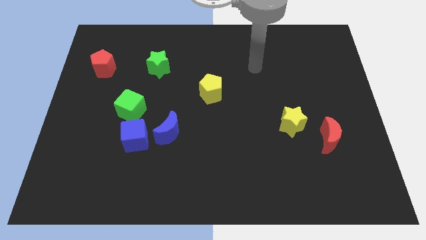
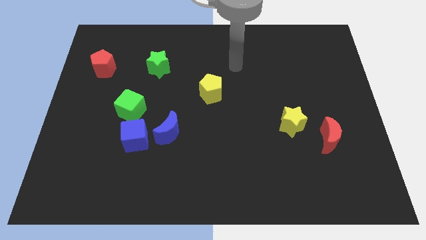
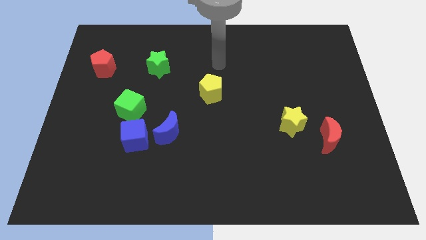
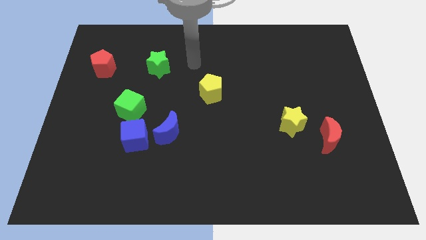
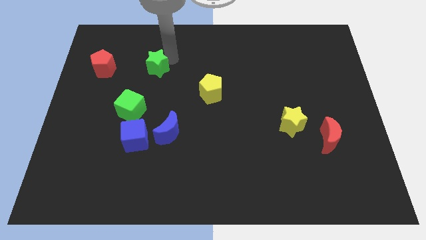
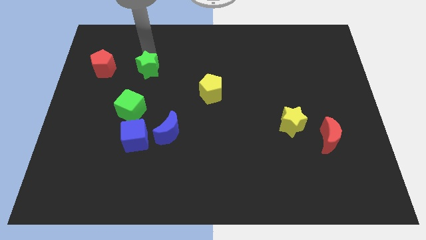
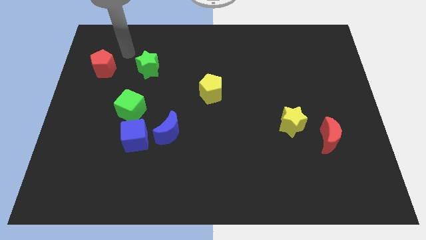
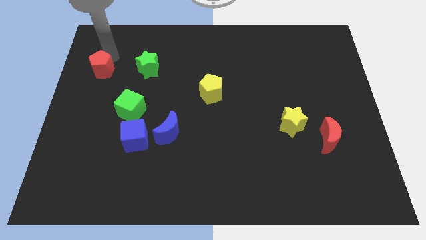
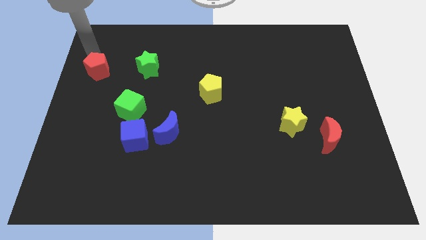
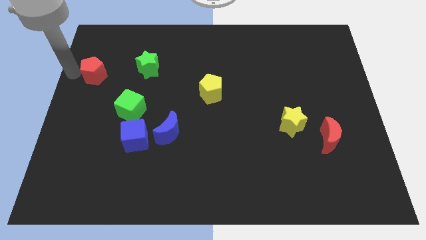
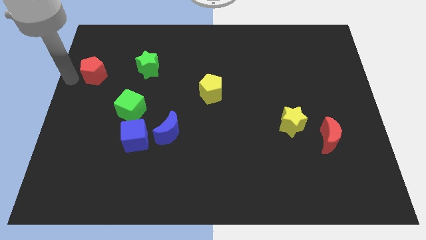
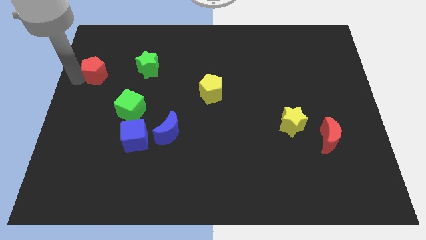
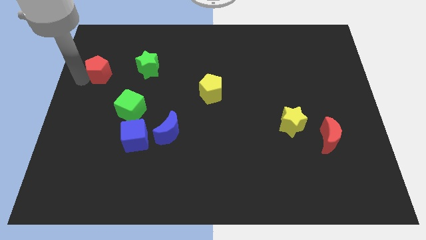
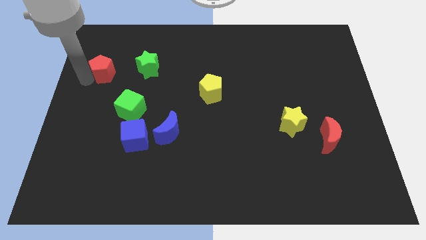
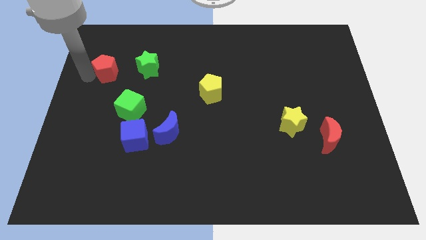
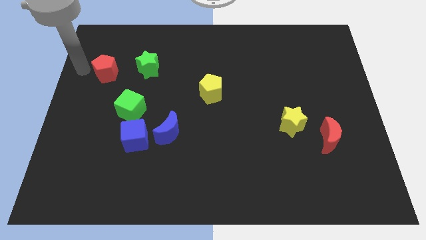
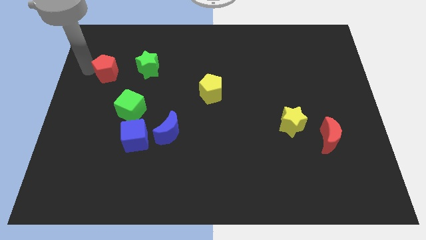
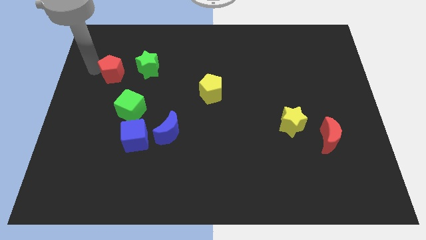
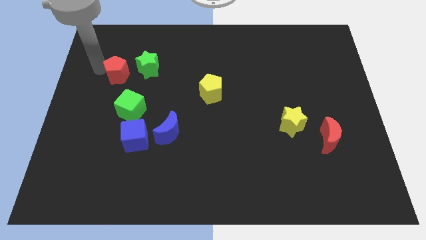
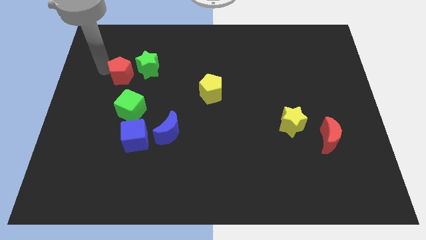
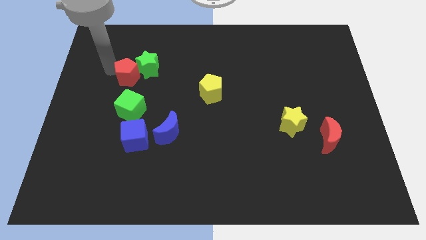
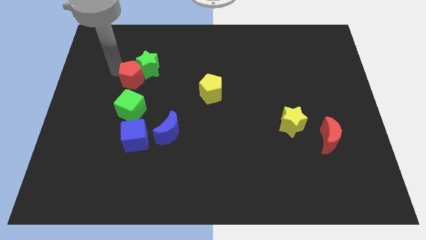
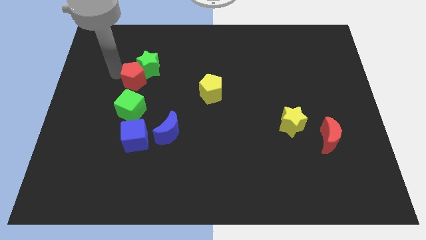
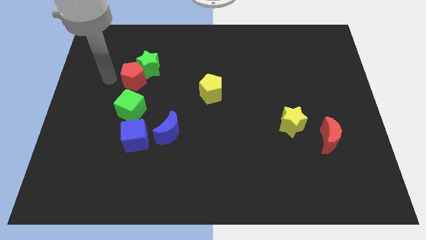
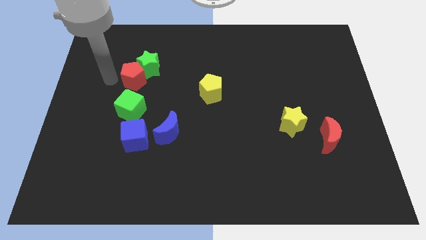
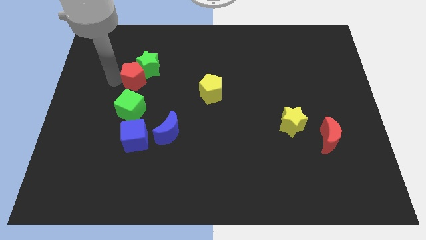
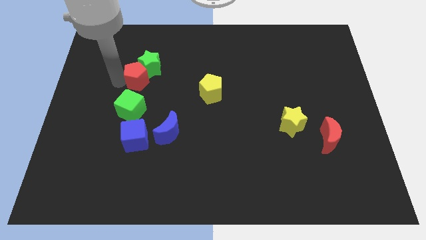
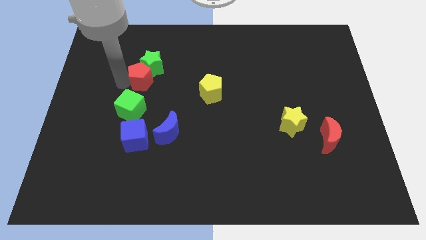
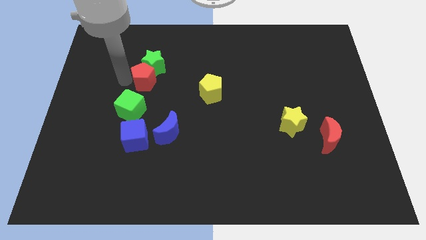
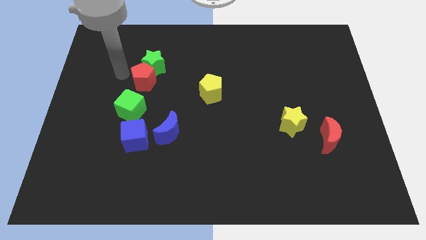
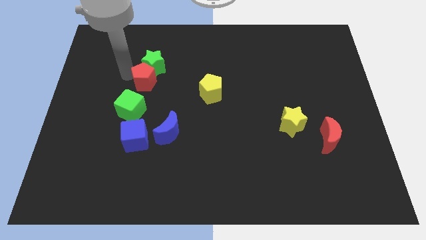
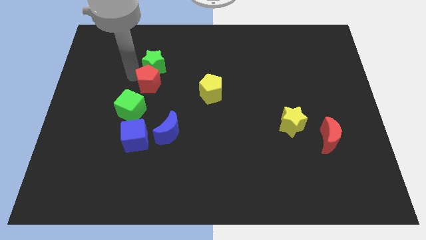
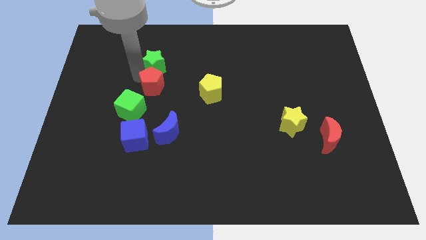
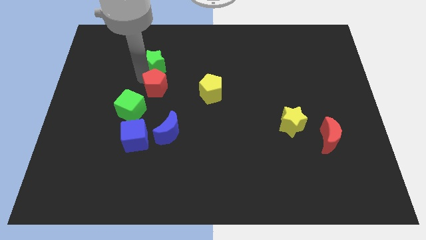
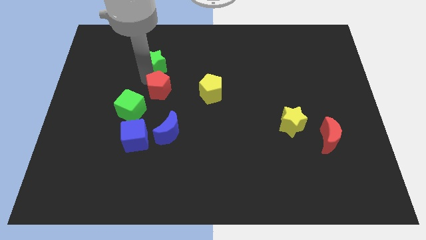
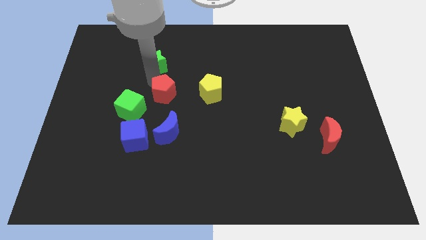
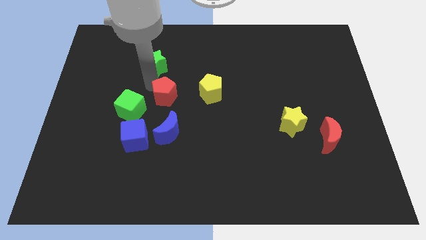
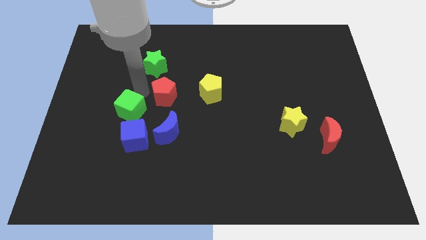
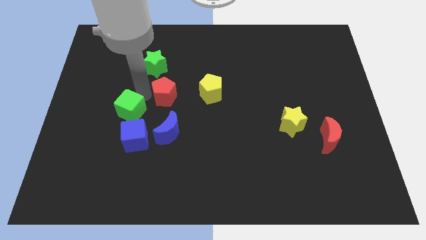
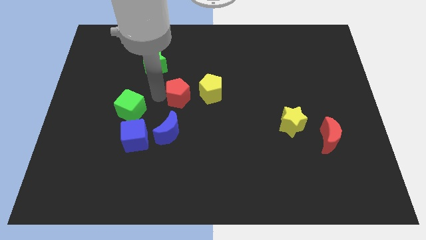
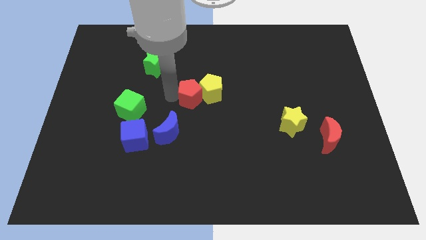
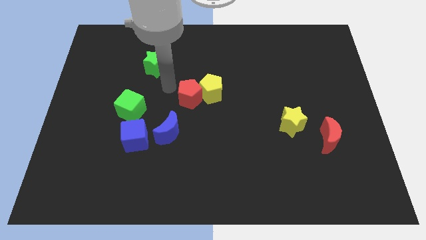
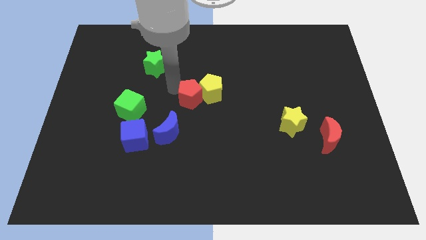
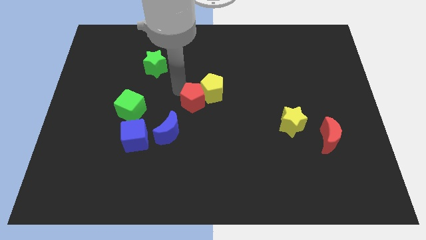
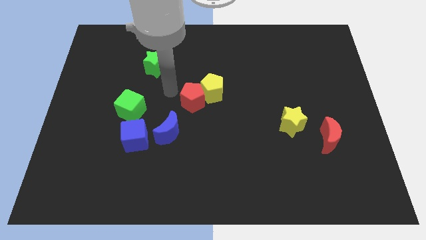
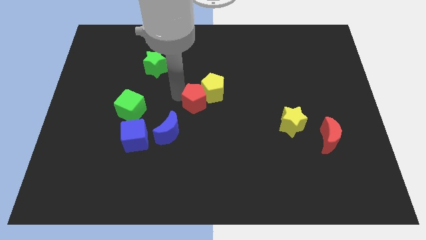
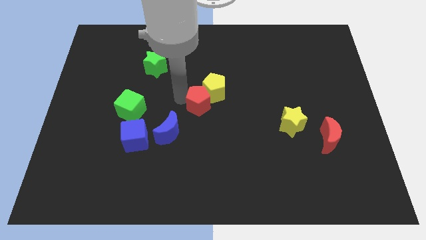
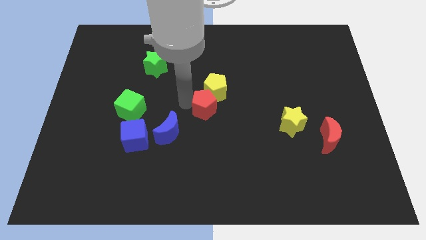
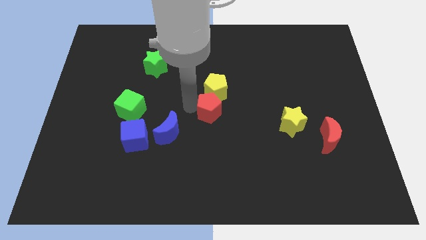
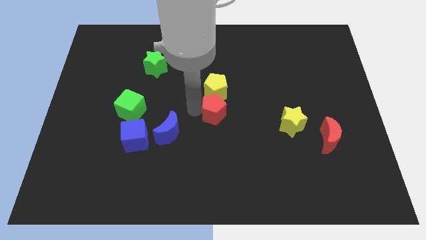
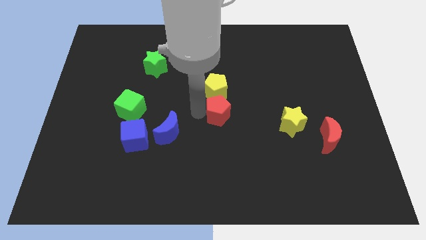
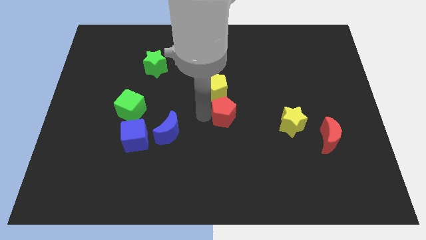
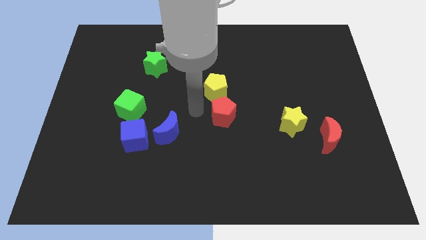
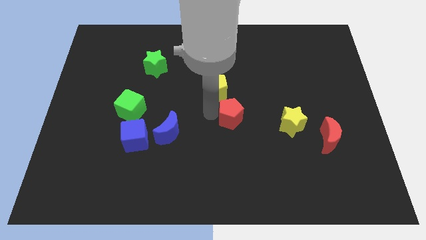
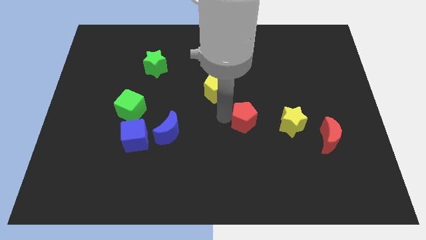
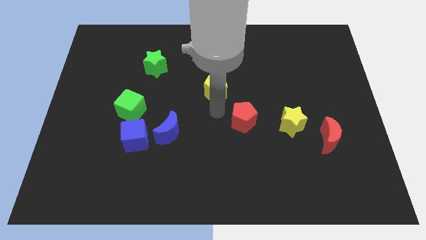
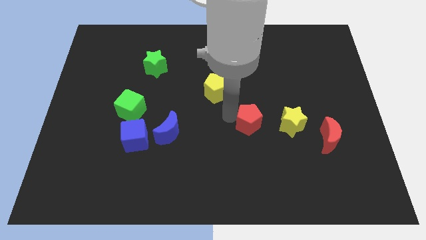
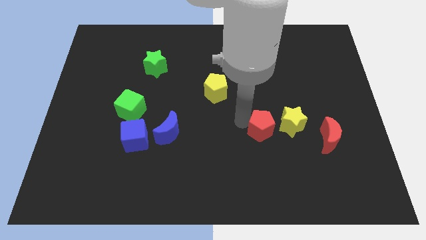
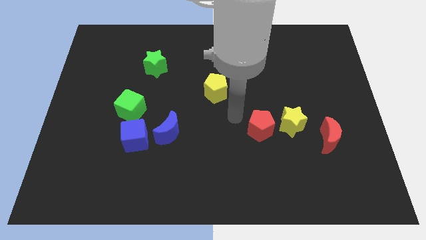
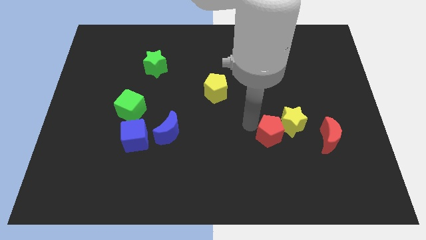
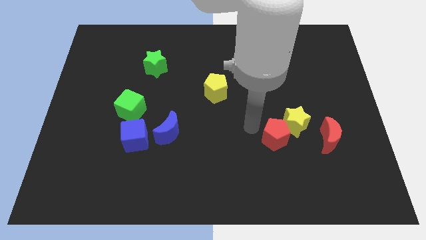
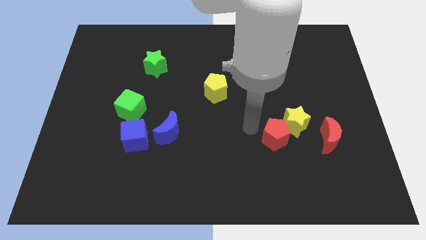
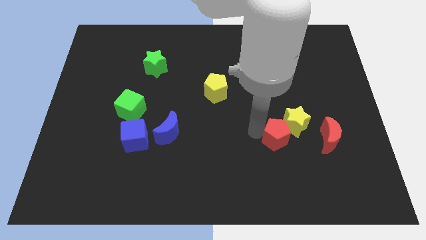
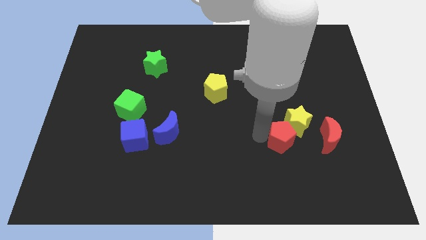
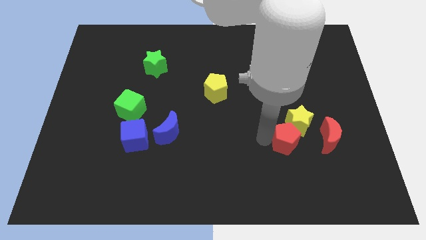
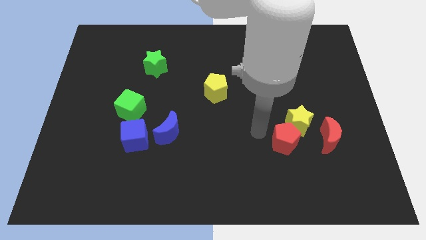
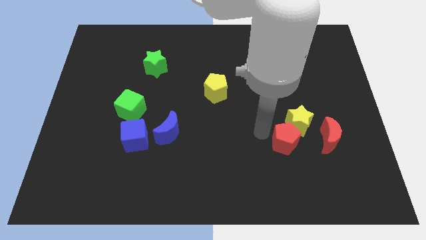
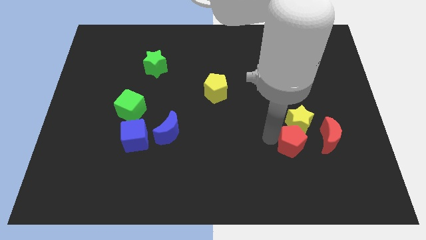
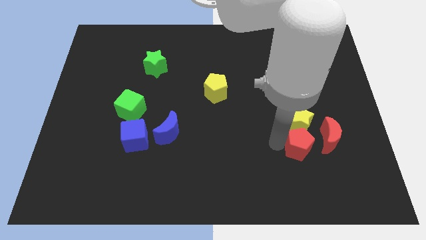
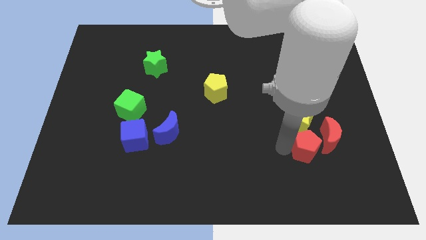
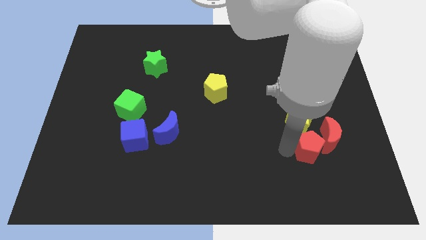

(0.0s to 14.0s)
slide the red pentagon next to the red moon
